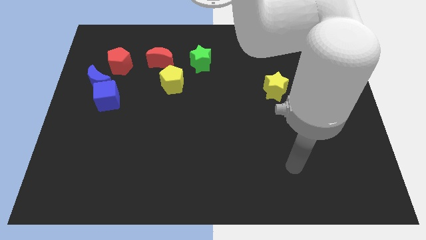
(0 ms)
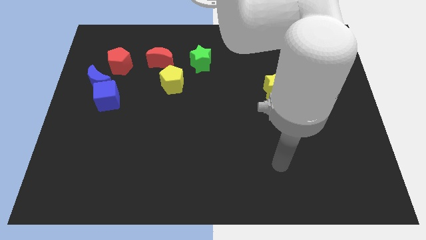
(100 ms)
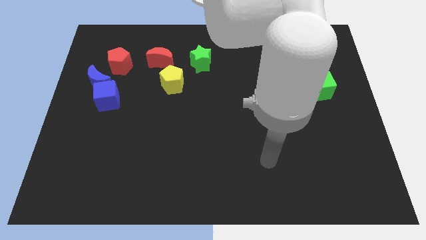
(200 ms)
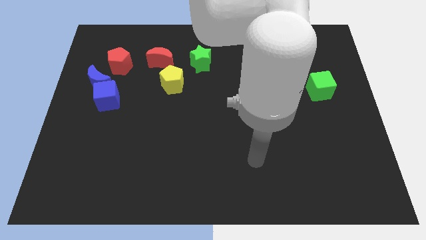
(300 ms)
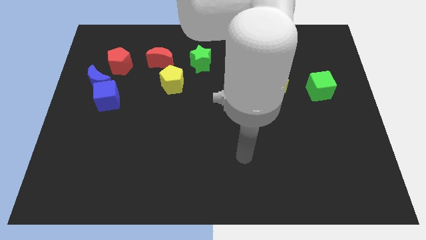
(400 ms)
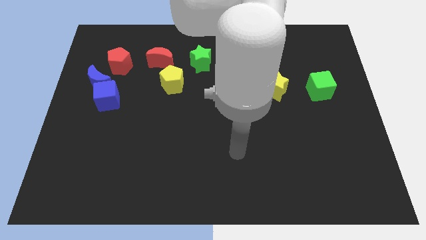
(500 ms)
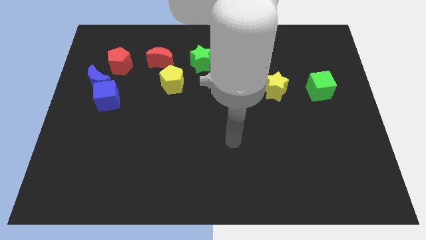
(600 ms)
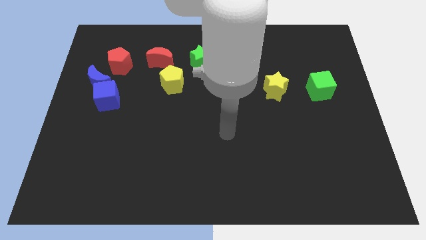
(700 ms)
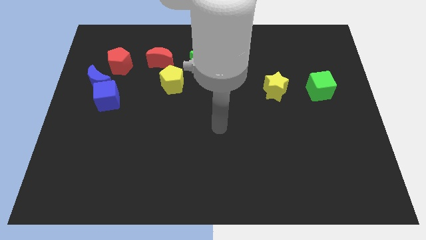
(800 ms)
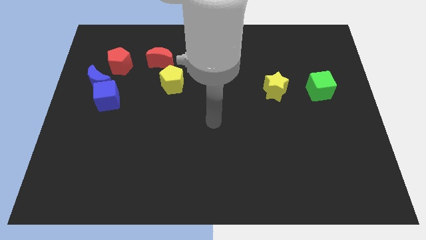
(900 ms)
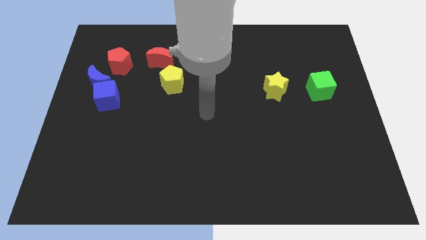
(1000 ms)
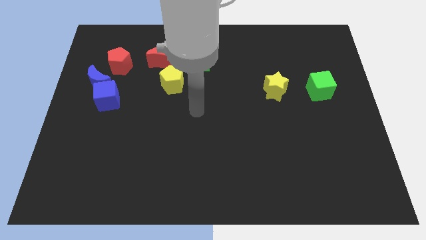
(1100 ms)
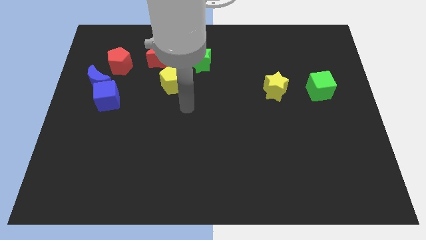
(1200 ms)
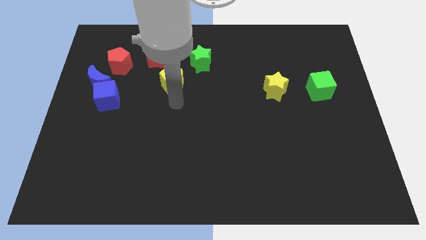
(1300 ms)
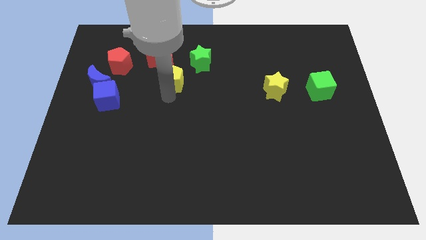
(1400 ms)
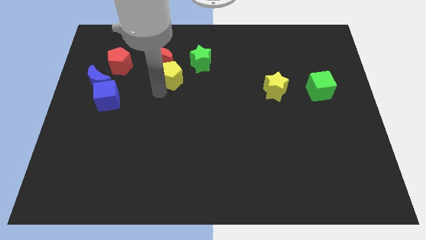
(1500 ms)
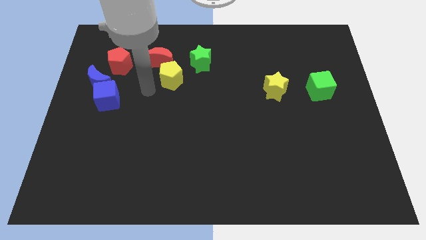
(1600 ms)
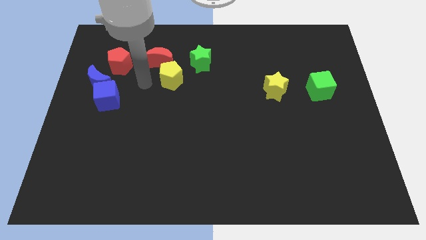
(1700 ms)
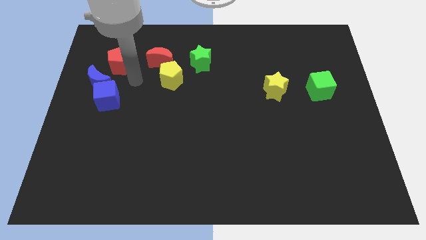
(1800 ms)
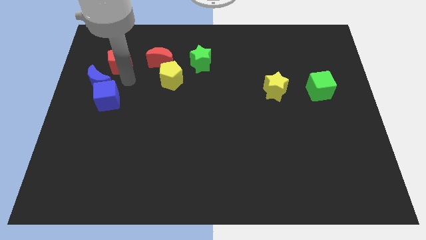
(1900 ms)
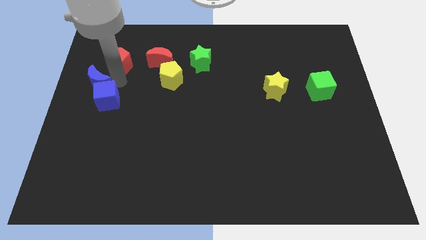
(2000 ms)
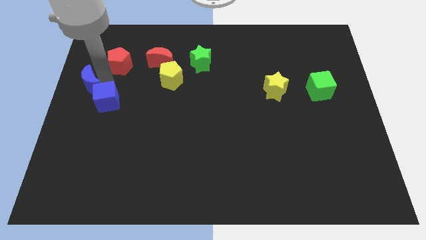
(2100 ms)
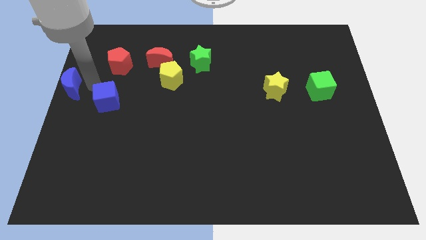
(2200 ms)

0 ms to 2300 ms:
separate the blue cube from the blue moon

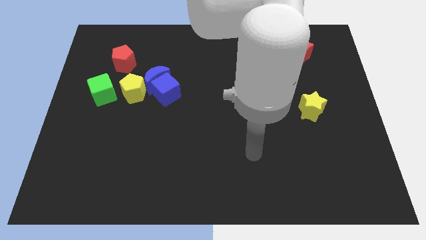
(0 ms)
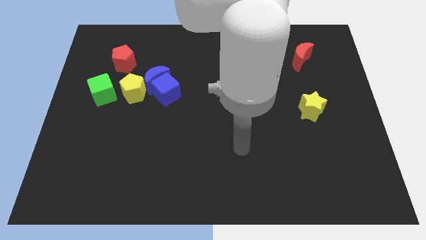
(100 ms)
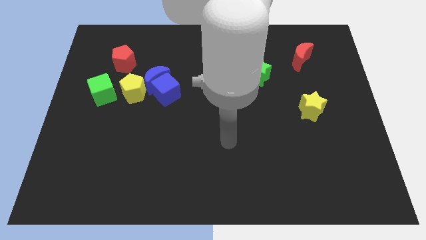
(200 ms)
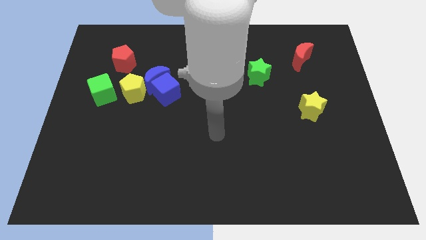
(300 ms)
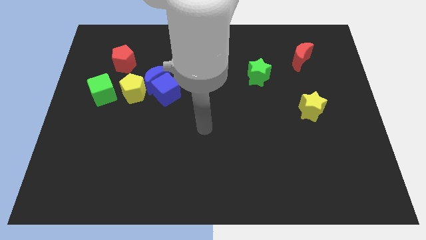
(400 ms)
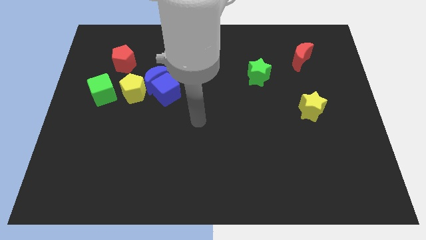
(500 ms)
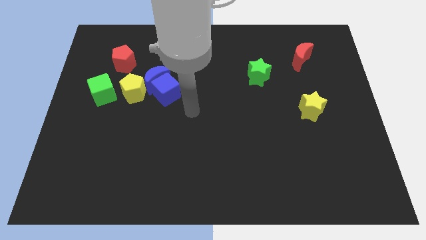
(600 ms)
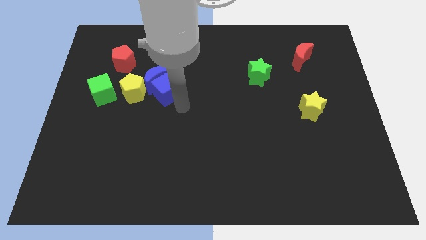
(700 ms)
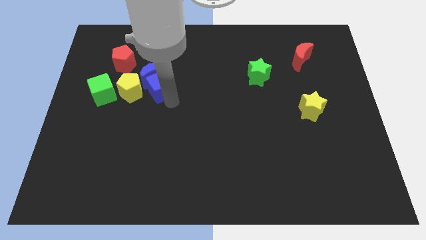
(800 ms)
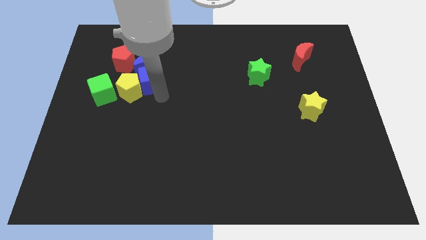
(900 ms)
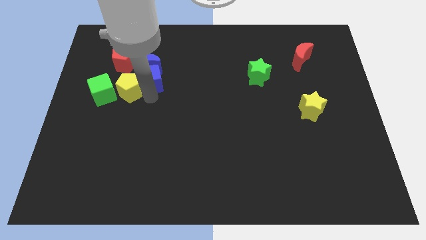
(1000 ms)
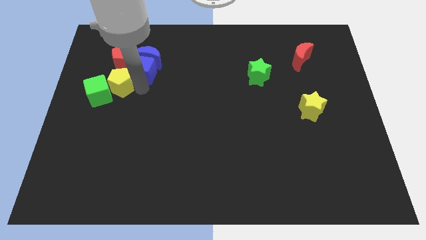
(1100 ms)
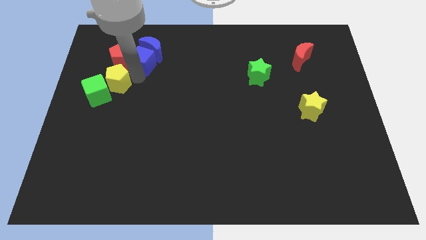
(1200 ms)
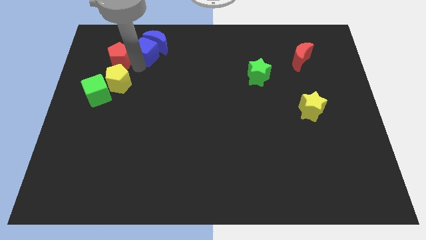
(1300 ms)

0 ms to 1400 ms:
separate the blue moon from the blue cube and yellow pentagon

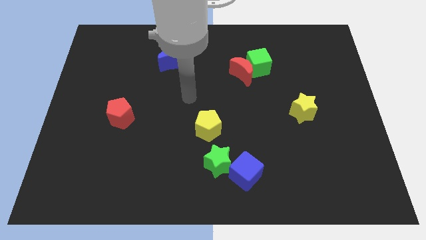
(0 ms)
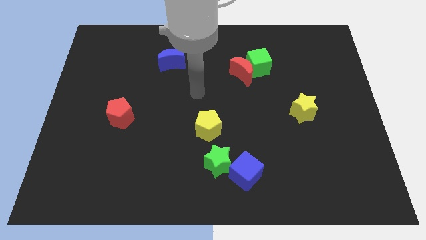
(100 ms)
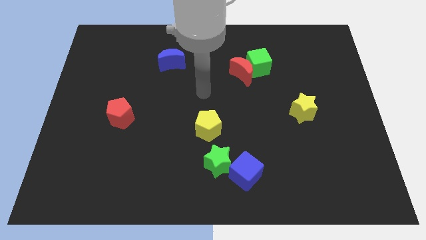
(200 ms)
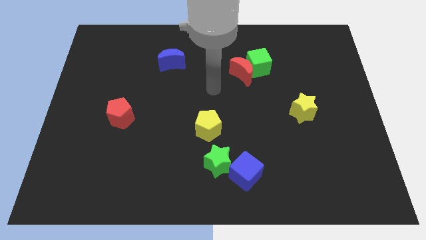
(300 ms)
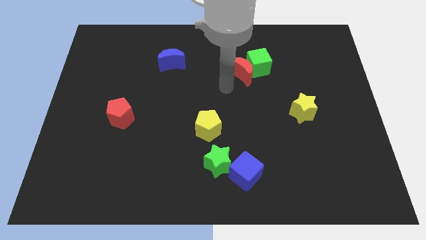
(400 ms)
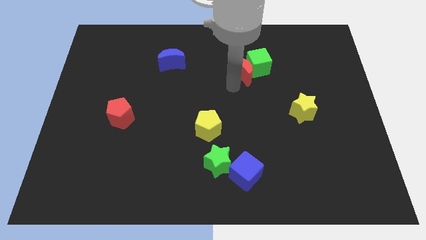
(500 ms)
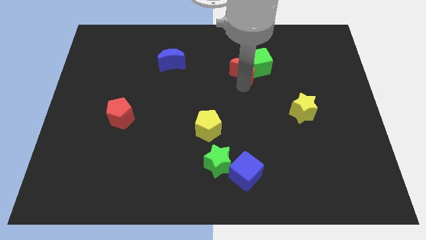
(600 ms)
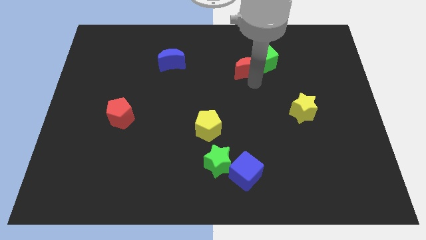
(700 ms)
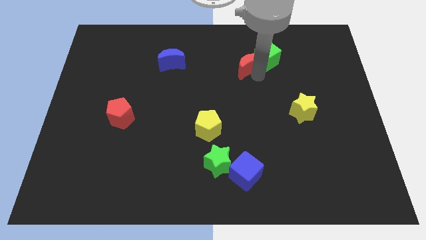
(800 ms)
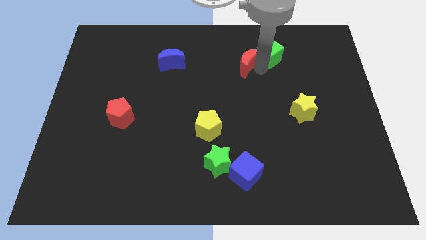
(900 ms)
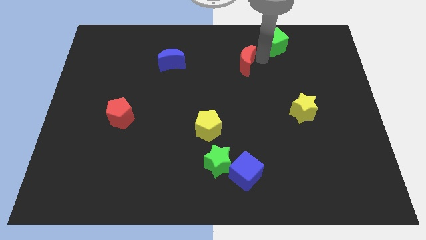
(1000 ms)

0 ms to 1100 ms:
separate the red moon from the green cube

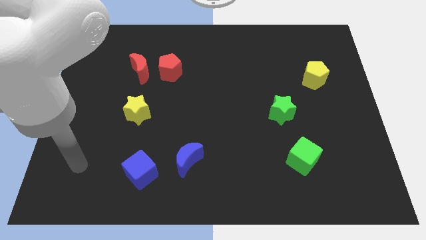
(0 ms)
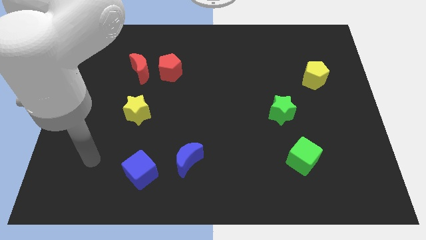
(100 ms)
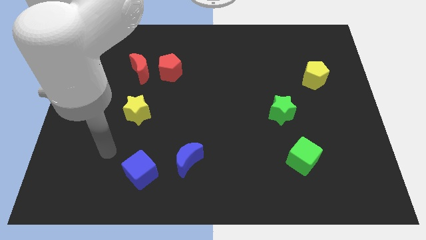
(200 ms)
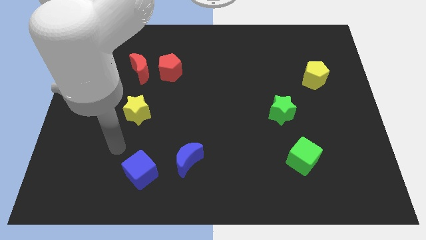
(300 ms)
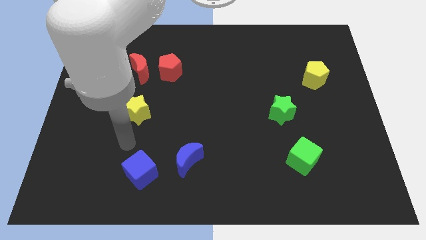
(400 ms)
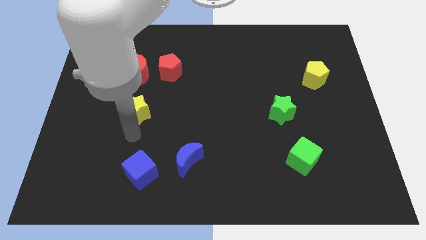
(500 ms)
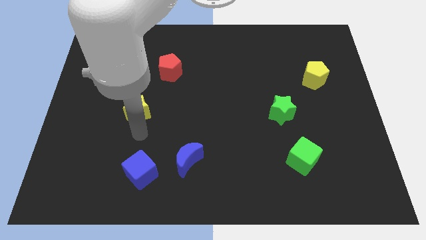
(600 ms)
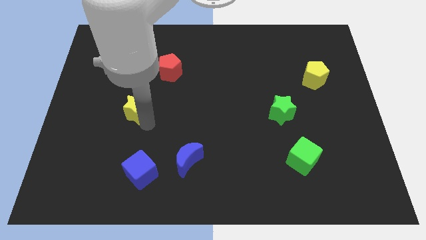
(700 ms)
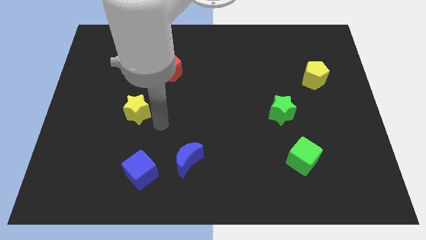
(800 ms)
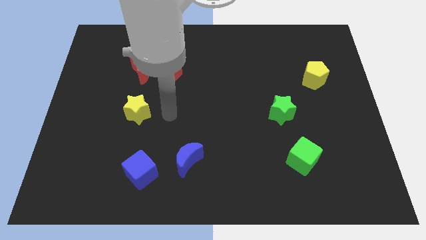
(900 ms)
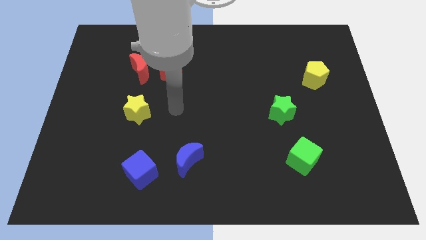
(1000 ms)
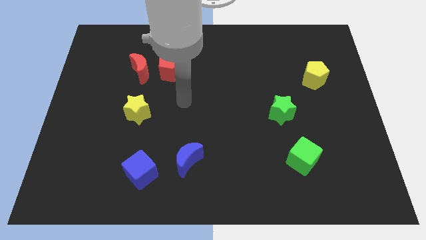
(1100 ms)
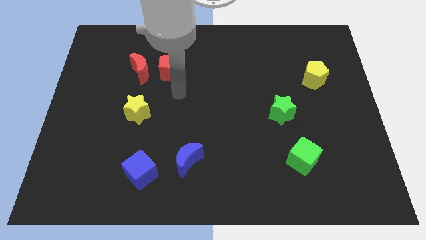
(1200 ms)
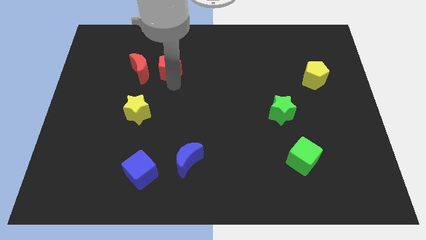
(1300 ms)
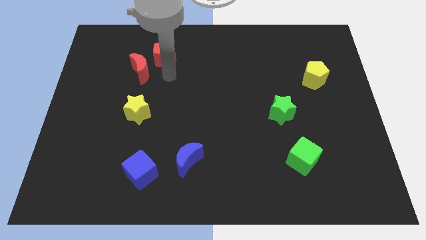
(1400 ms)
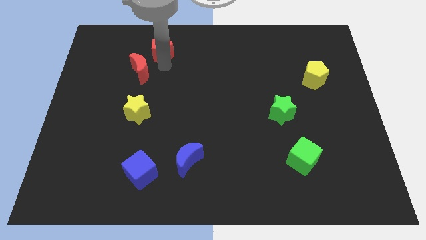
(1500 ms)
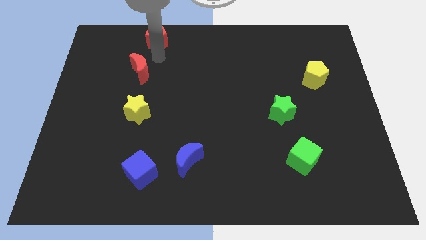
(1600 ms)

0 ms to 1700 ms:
separate the red moon from the red pentagon

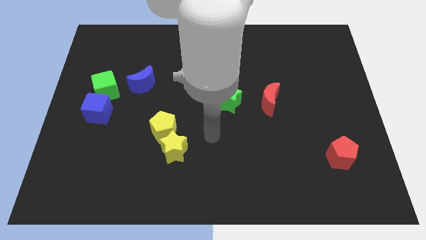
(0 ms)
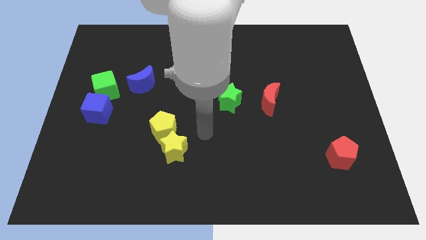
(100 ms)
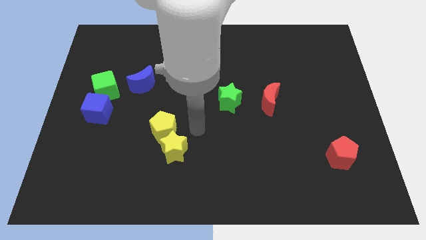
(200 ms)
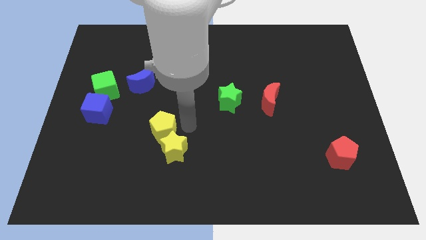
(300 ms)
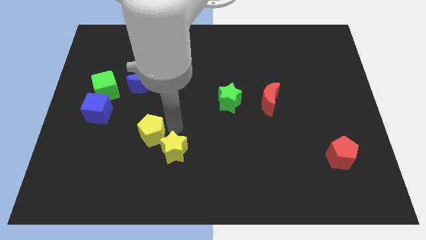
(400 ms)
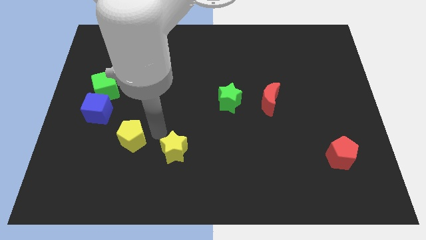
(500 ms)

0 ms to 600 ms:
pull the yellow star apart from the yellow pentagon

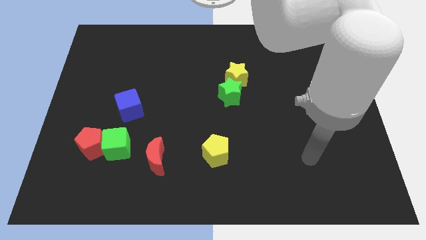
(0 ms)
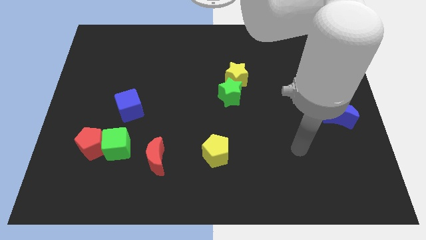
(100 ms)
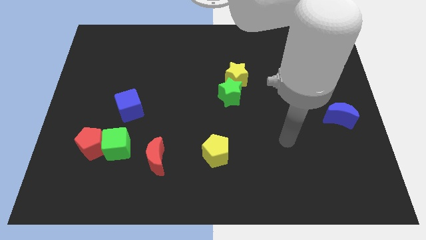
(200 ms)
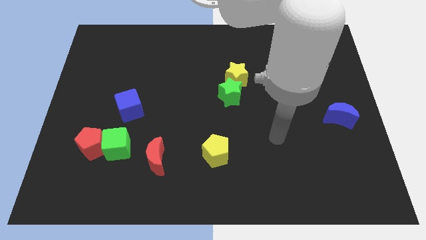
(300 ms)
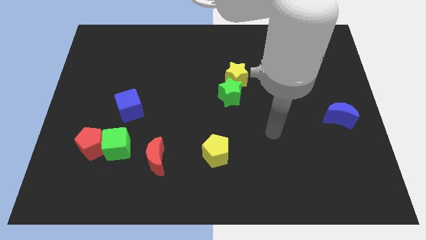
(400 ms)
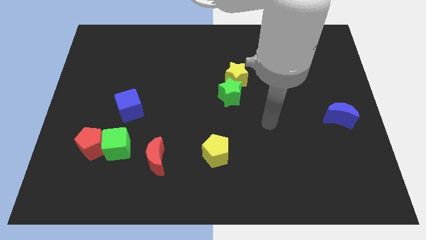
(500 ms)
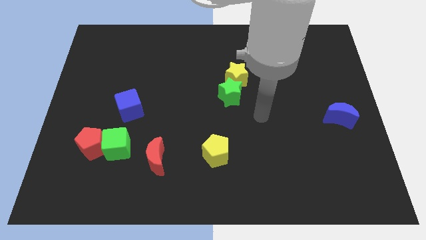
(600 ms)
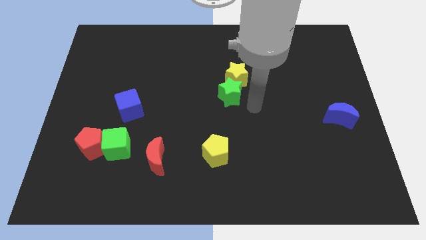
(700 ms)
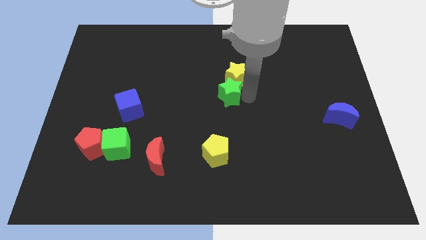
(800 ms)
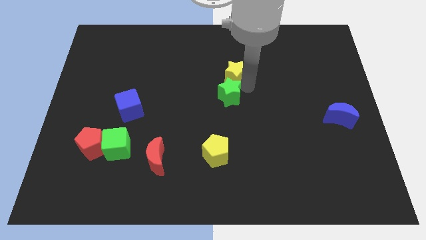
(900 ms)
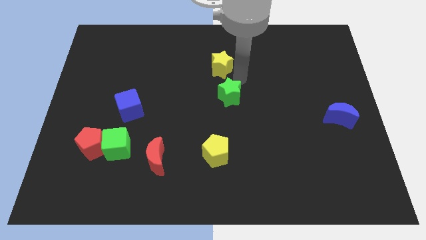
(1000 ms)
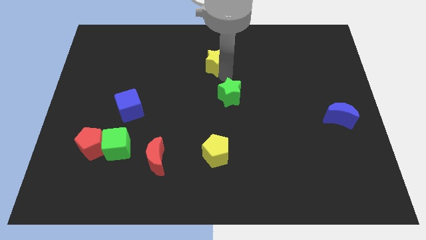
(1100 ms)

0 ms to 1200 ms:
pull the green star apart from the yellow star

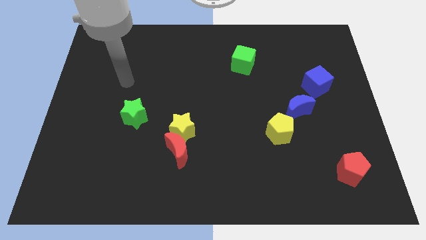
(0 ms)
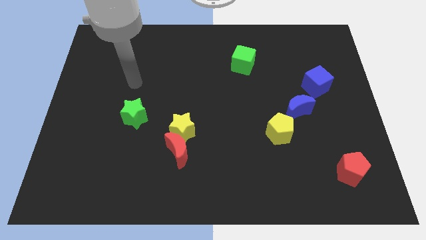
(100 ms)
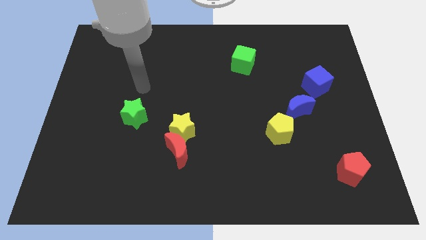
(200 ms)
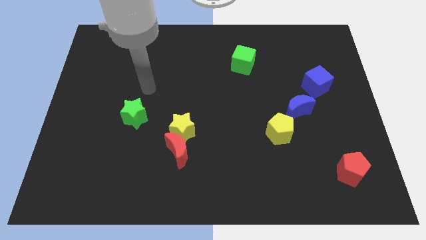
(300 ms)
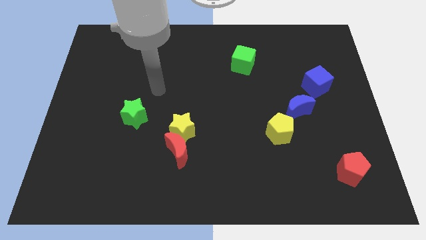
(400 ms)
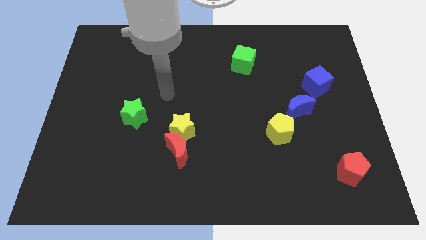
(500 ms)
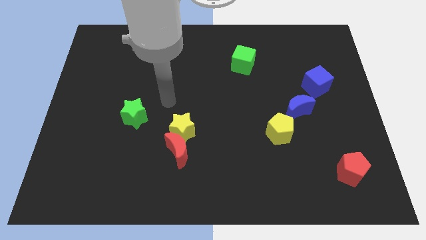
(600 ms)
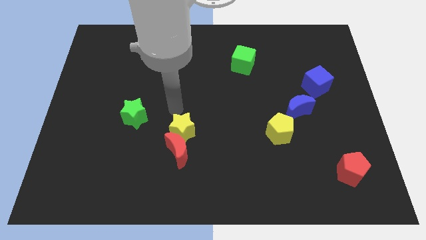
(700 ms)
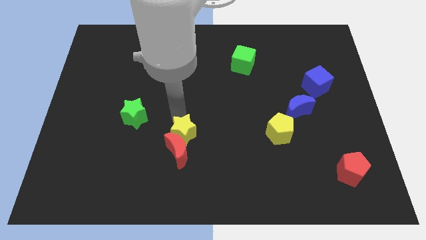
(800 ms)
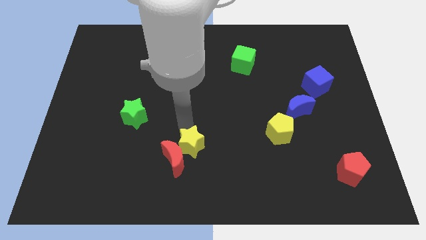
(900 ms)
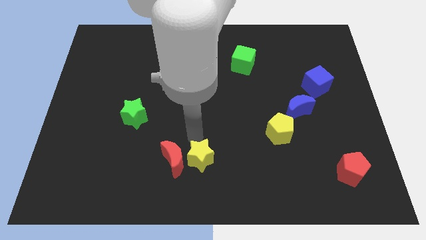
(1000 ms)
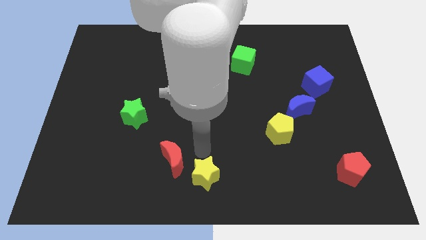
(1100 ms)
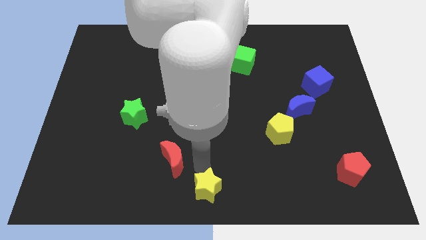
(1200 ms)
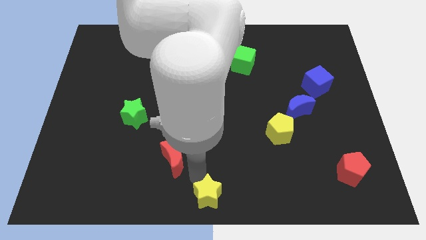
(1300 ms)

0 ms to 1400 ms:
separate the red moon from the yellow star
